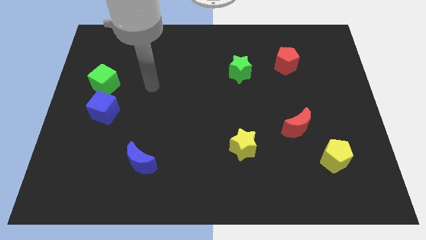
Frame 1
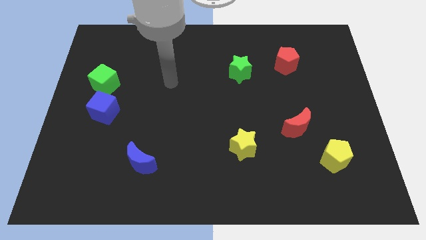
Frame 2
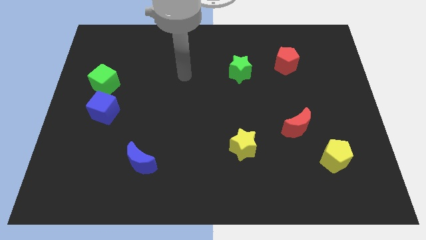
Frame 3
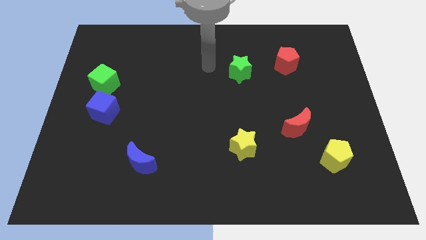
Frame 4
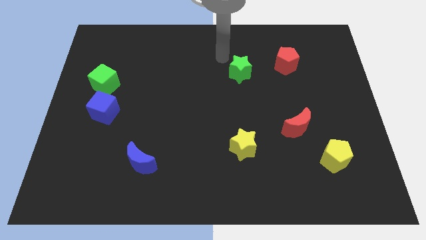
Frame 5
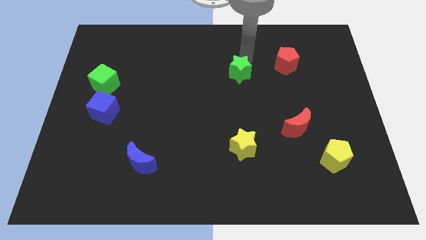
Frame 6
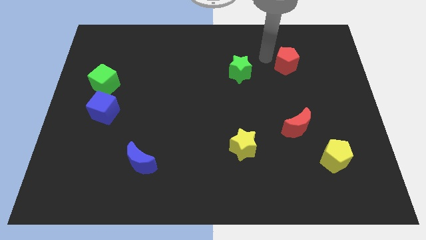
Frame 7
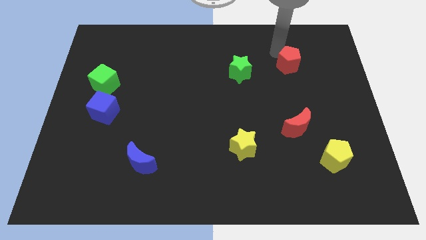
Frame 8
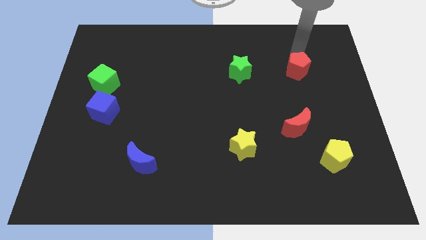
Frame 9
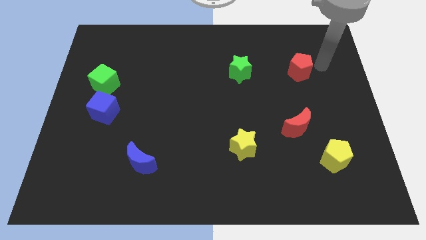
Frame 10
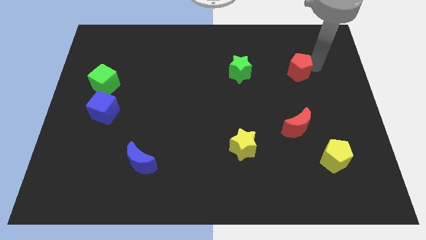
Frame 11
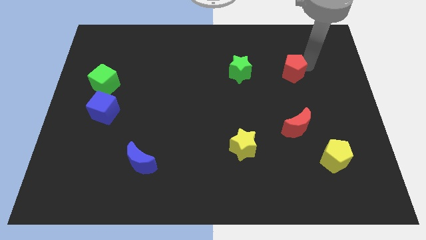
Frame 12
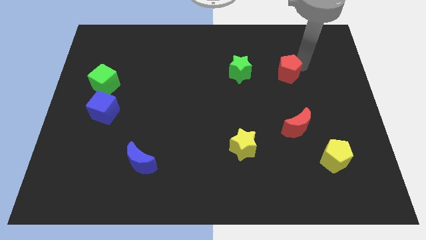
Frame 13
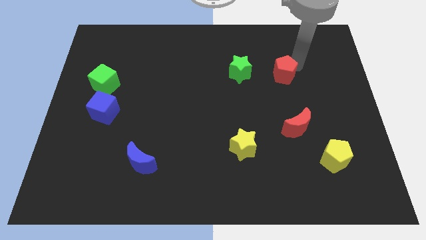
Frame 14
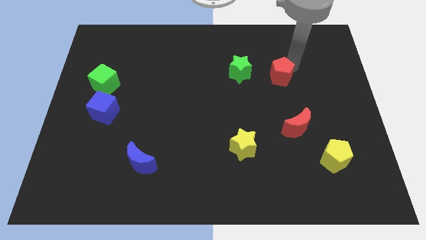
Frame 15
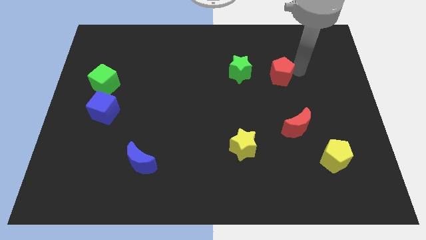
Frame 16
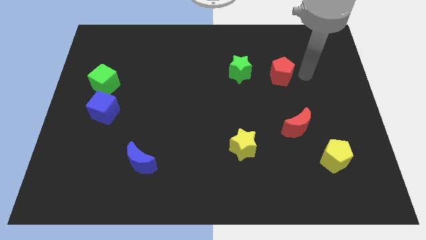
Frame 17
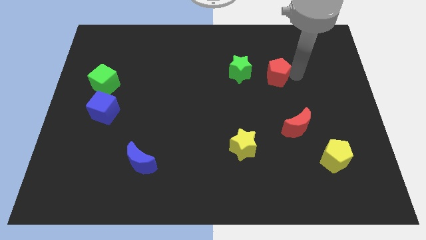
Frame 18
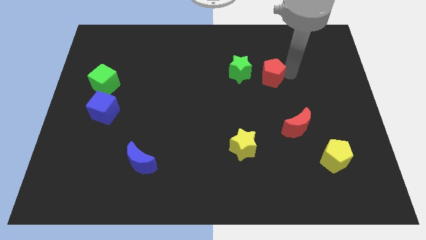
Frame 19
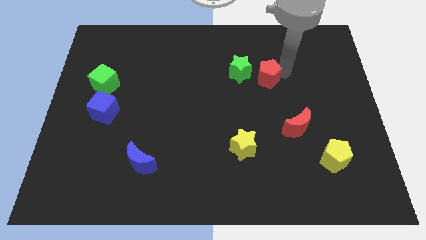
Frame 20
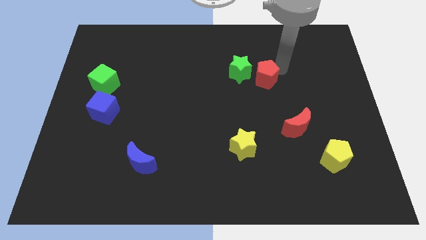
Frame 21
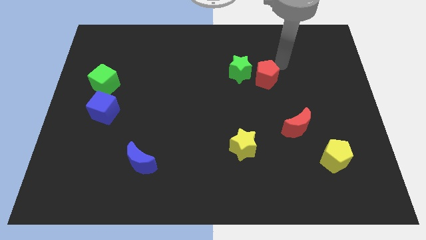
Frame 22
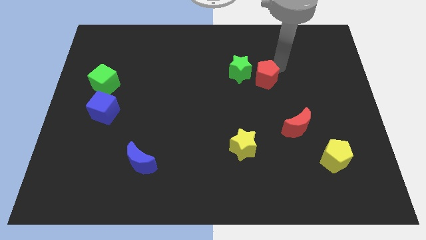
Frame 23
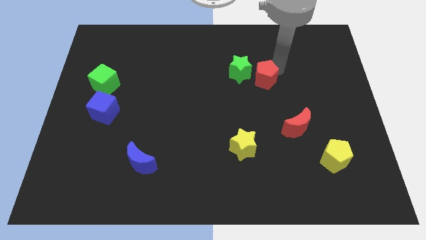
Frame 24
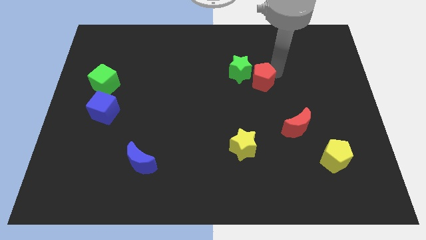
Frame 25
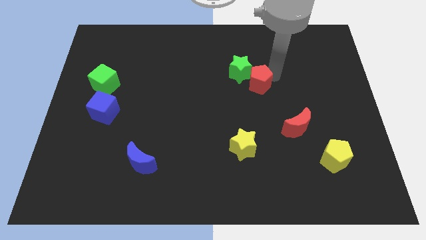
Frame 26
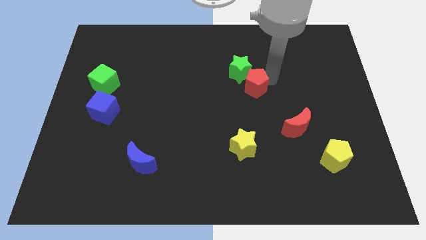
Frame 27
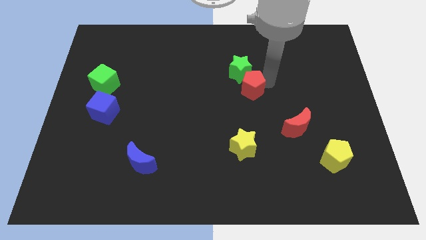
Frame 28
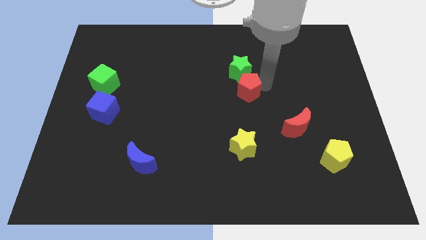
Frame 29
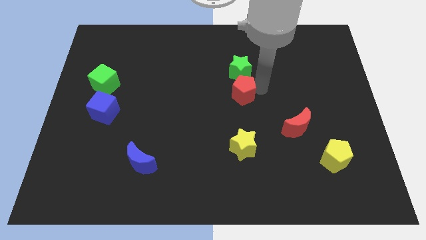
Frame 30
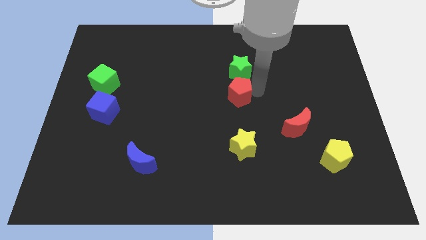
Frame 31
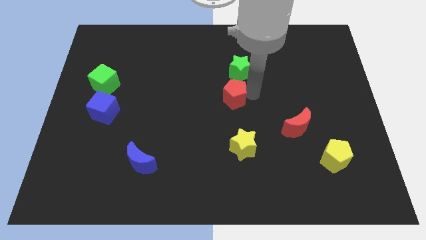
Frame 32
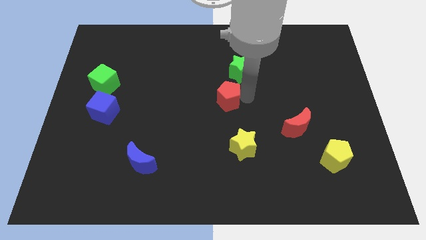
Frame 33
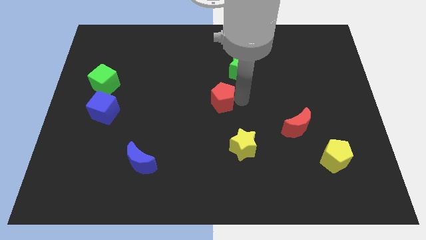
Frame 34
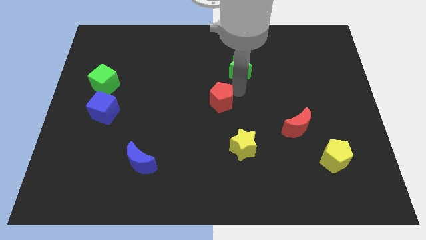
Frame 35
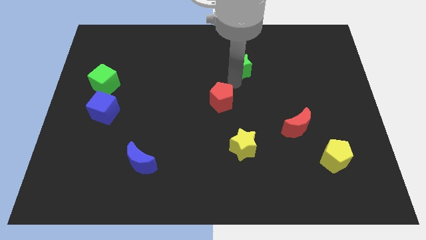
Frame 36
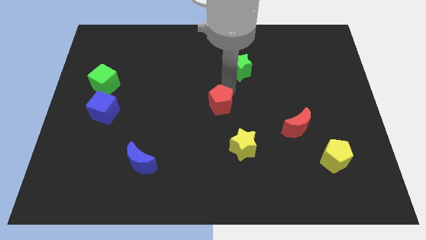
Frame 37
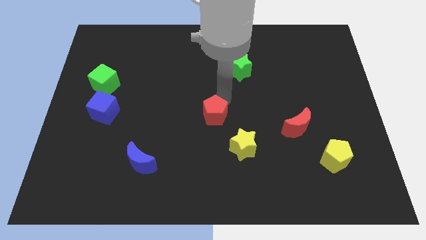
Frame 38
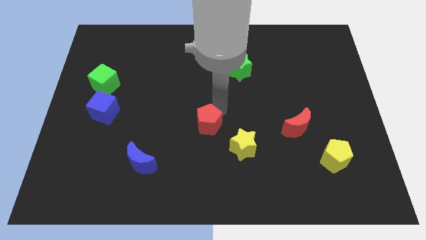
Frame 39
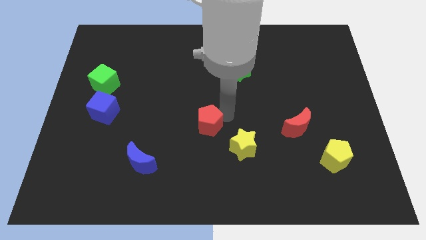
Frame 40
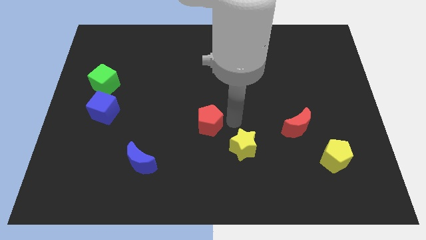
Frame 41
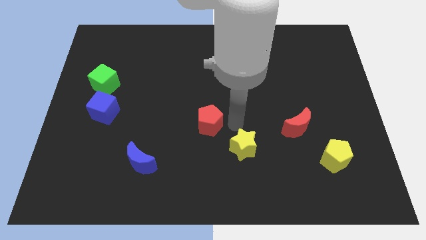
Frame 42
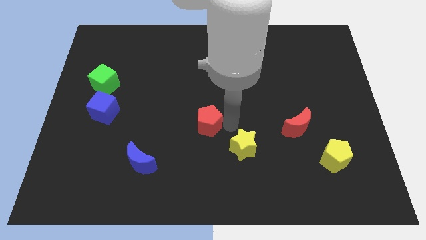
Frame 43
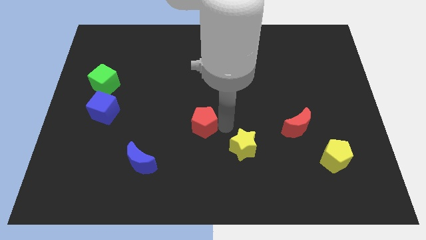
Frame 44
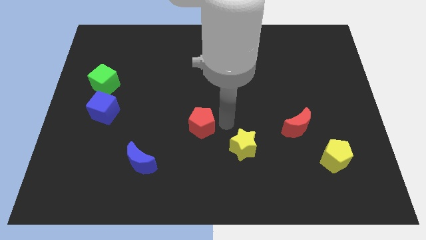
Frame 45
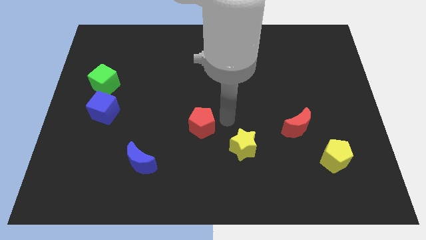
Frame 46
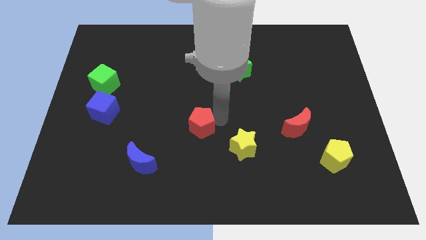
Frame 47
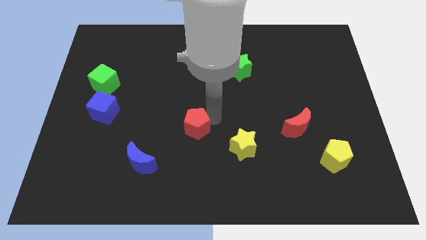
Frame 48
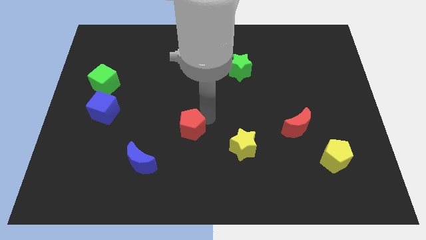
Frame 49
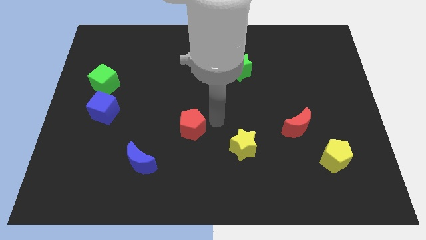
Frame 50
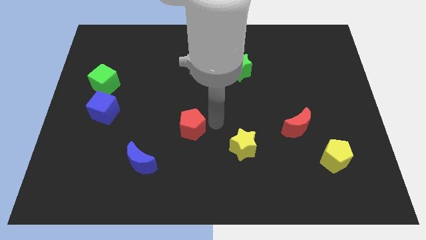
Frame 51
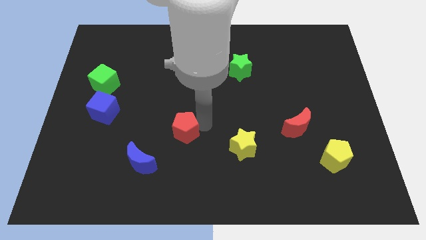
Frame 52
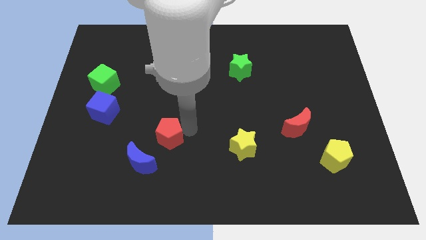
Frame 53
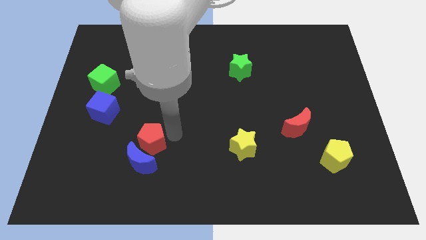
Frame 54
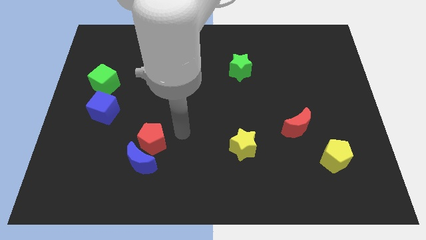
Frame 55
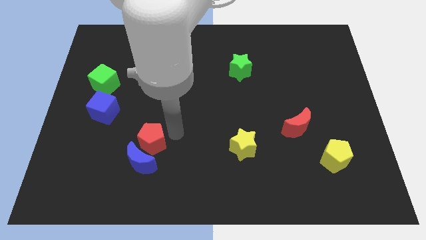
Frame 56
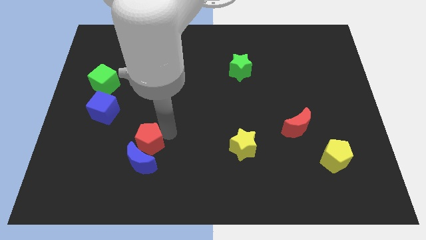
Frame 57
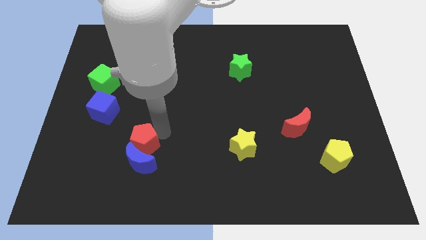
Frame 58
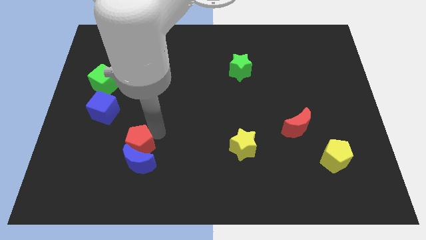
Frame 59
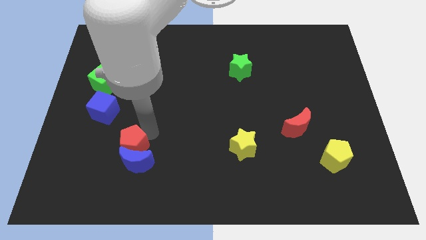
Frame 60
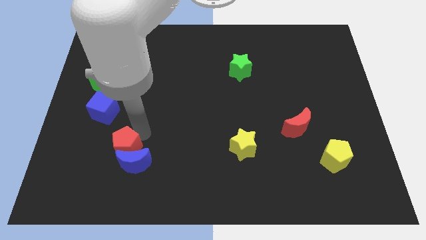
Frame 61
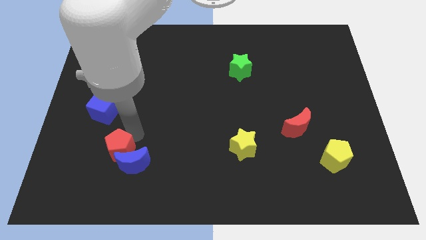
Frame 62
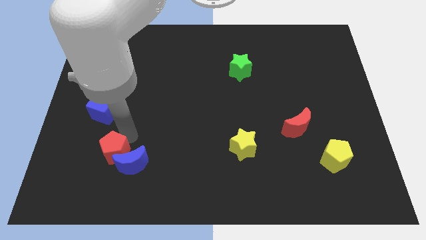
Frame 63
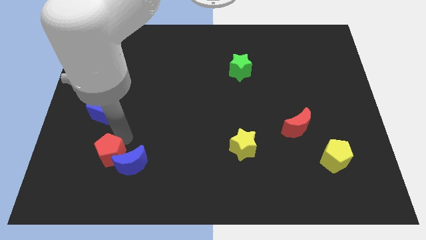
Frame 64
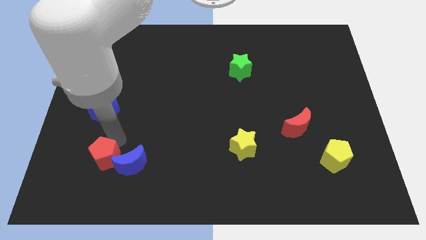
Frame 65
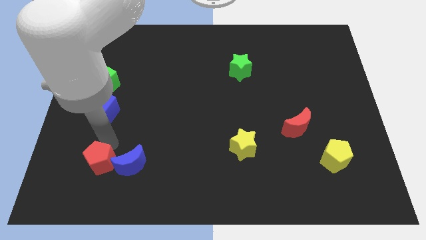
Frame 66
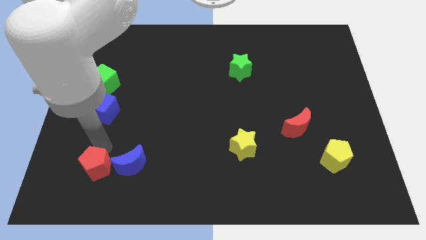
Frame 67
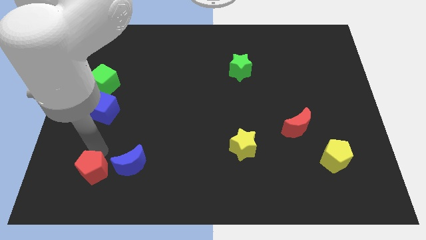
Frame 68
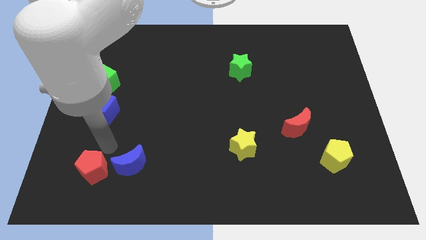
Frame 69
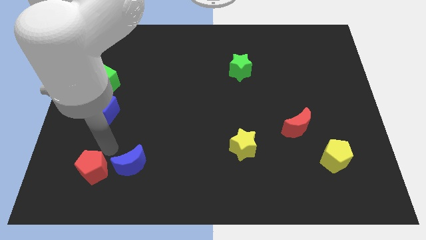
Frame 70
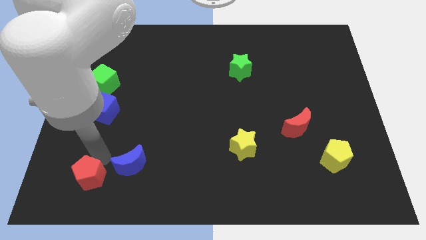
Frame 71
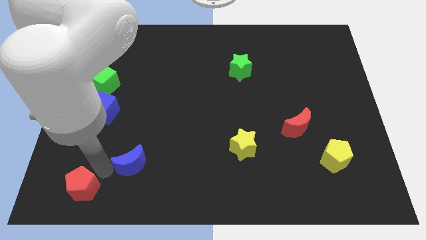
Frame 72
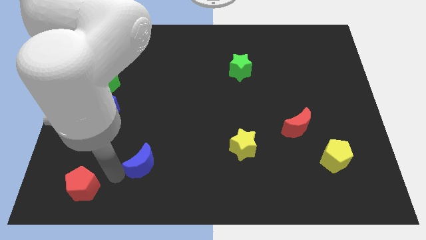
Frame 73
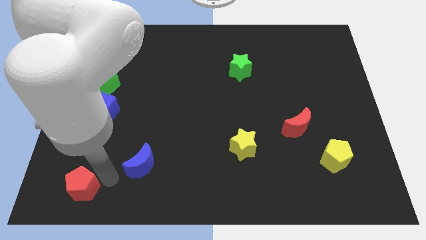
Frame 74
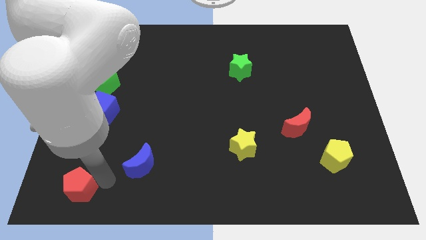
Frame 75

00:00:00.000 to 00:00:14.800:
slide the red pentagon to the bottom left
